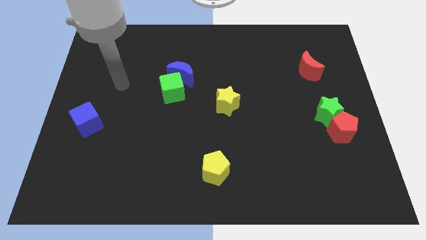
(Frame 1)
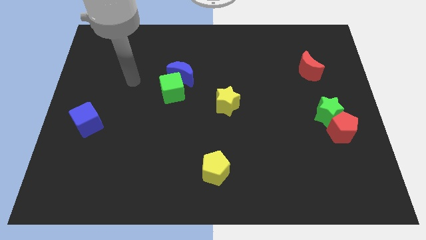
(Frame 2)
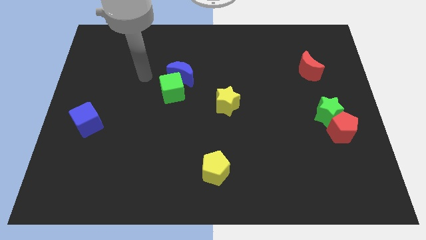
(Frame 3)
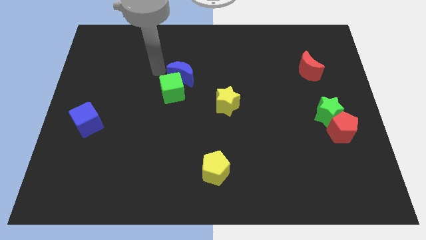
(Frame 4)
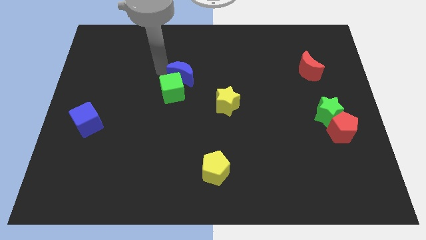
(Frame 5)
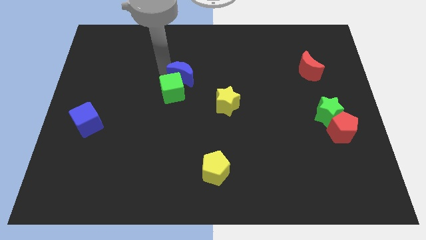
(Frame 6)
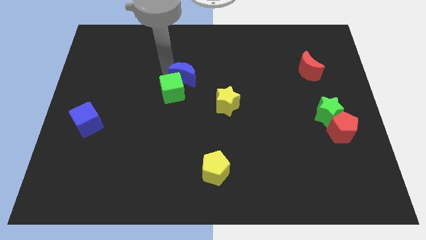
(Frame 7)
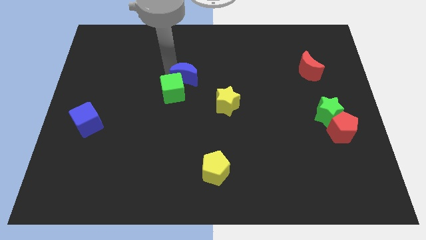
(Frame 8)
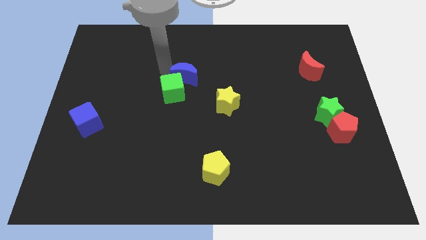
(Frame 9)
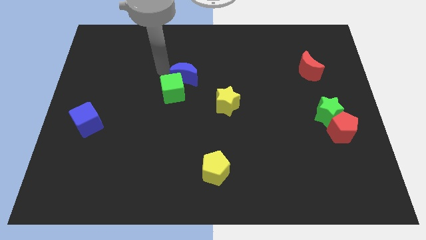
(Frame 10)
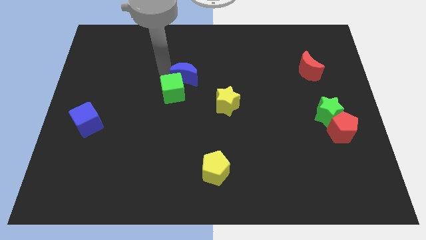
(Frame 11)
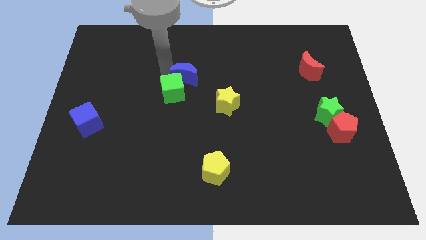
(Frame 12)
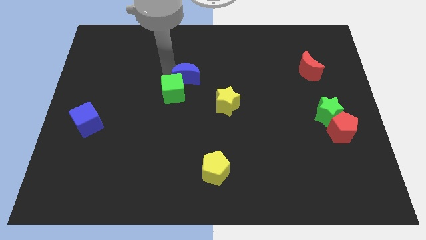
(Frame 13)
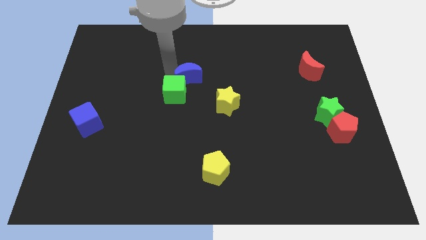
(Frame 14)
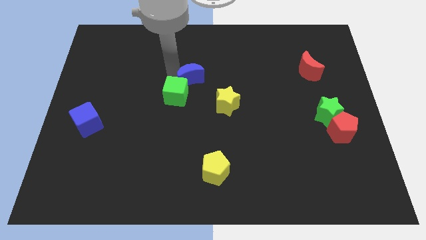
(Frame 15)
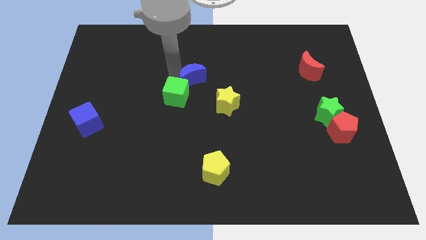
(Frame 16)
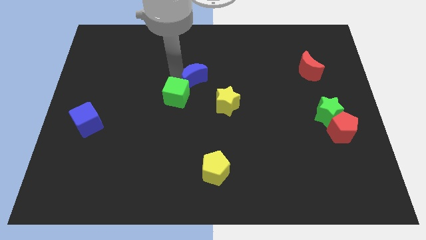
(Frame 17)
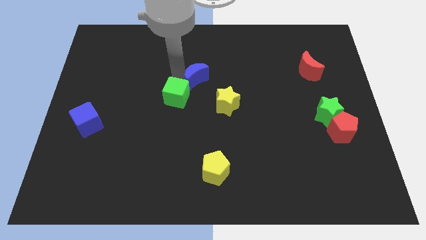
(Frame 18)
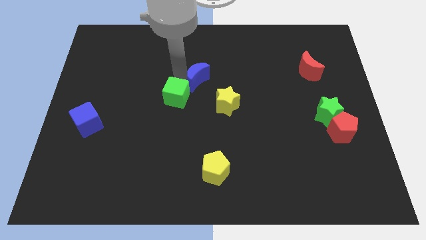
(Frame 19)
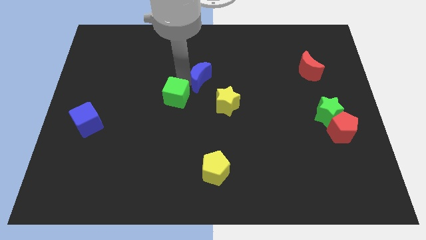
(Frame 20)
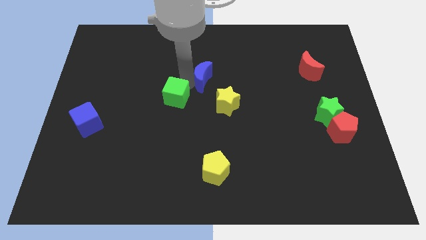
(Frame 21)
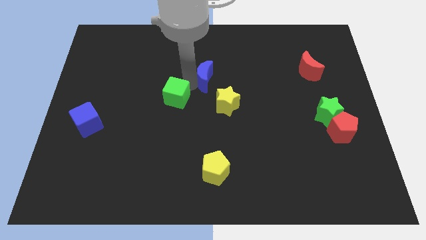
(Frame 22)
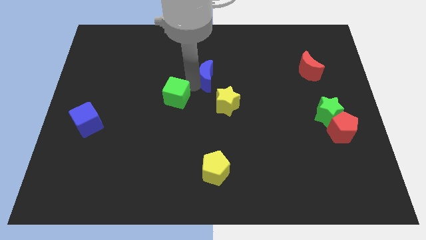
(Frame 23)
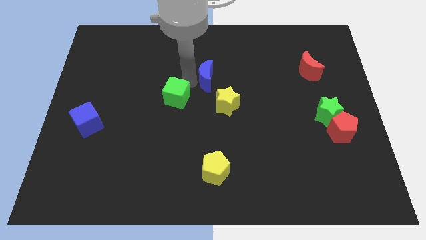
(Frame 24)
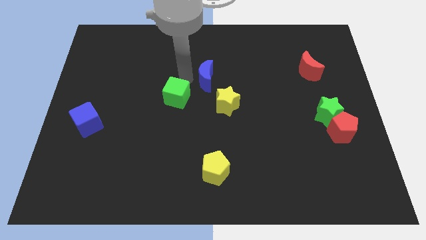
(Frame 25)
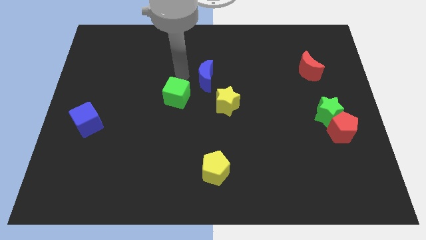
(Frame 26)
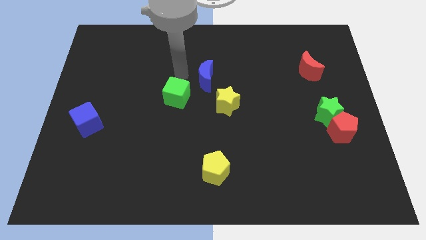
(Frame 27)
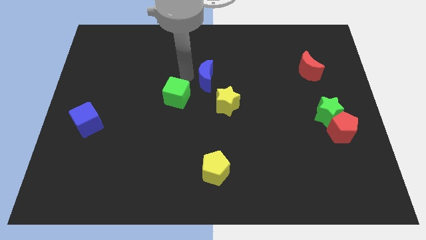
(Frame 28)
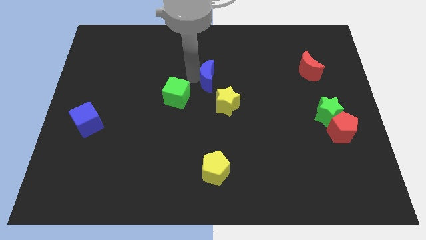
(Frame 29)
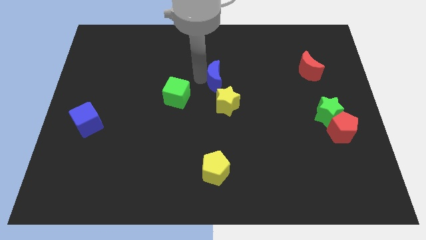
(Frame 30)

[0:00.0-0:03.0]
slightly slide the blue moon right

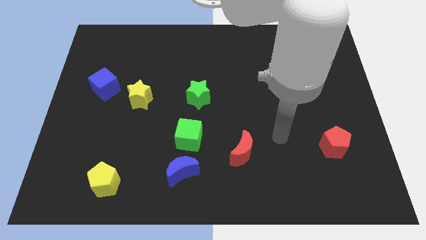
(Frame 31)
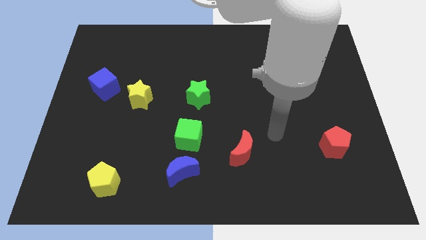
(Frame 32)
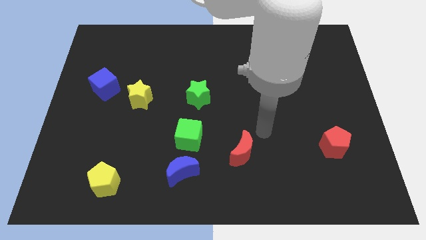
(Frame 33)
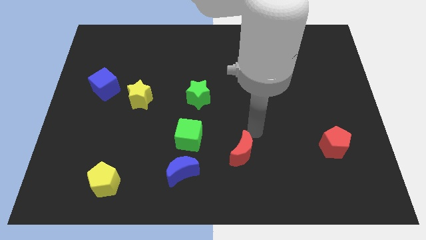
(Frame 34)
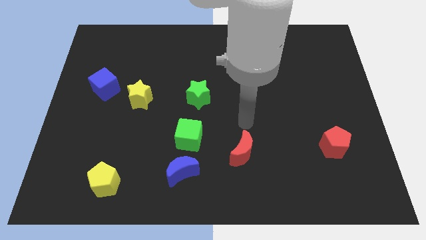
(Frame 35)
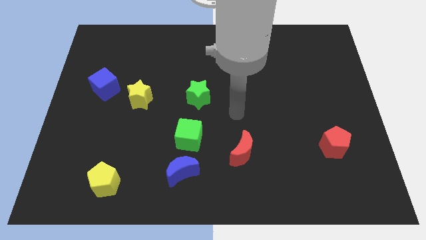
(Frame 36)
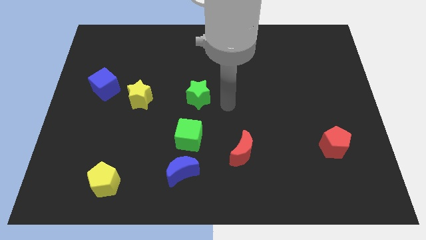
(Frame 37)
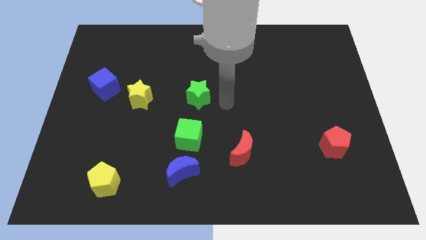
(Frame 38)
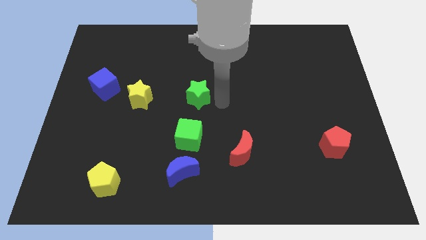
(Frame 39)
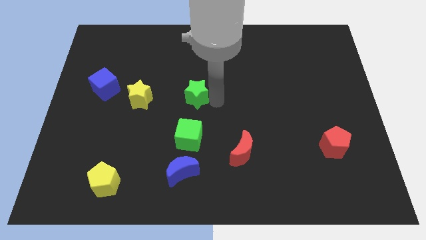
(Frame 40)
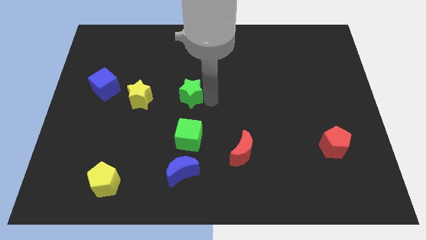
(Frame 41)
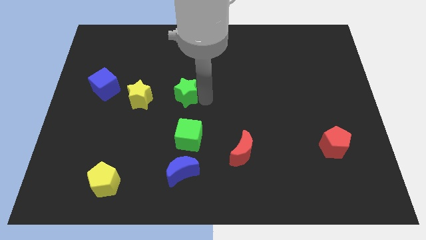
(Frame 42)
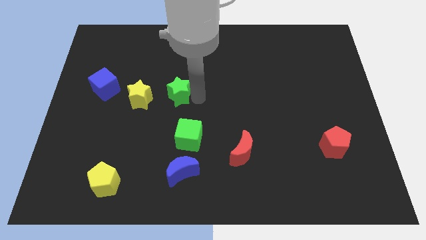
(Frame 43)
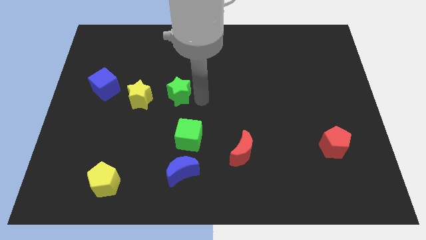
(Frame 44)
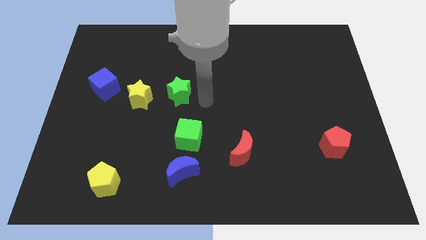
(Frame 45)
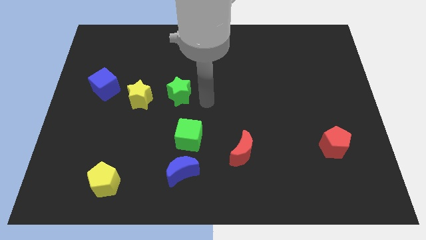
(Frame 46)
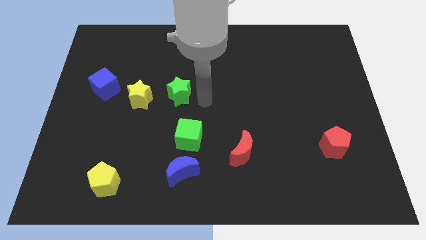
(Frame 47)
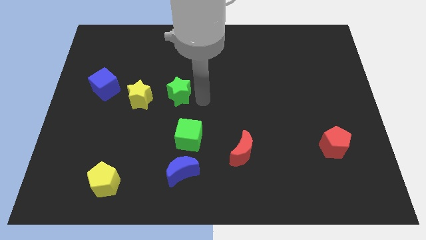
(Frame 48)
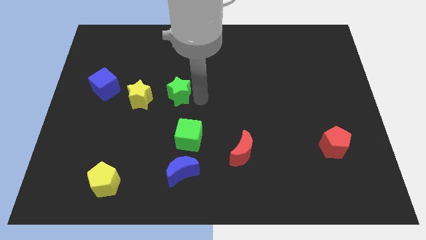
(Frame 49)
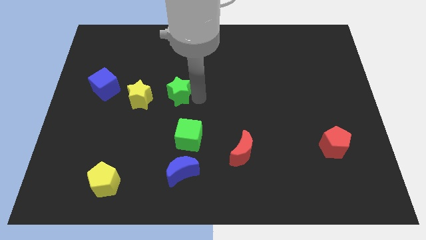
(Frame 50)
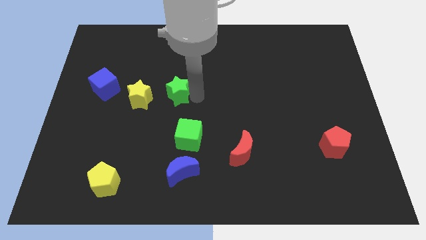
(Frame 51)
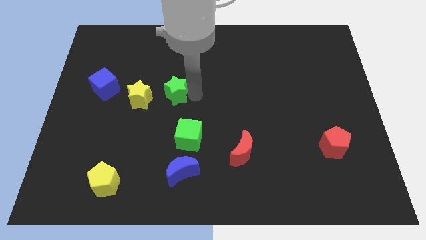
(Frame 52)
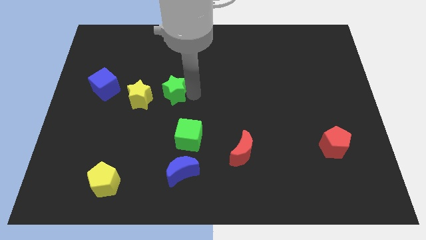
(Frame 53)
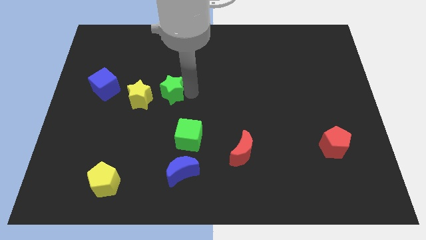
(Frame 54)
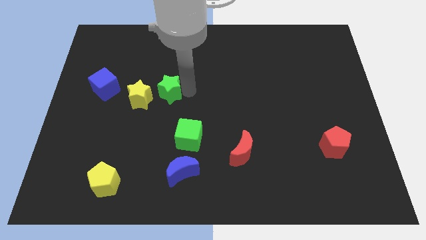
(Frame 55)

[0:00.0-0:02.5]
push the green star somewhat to the left

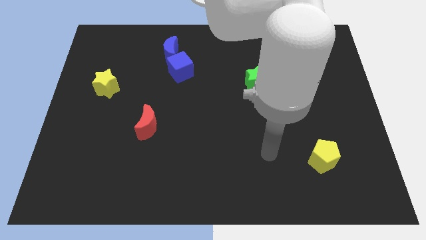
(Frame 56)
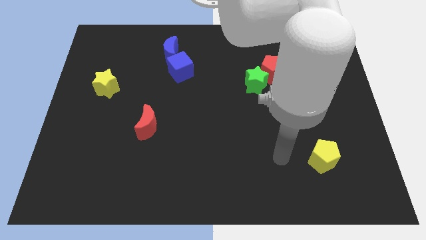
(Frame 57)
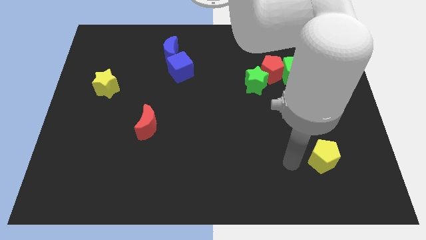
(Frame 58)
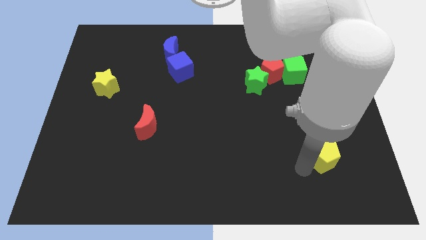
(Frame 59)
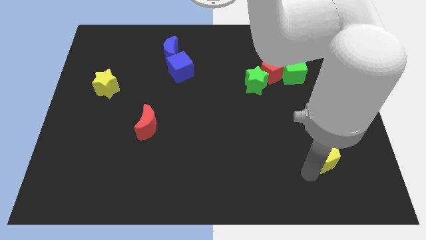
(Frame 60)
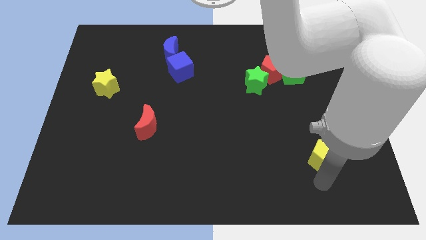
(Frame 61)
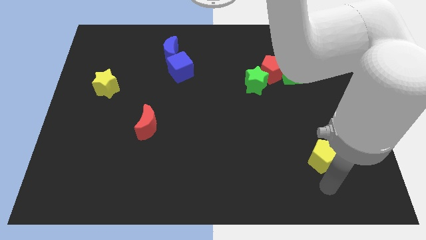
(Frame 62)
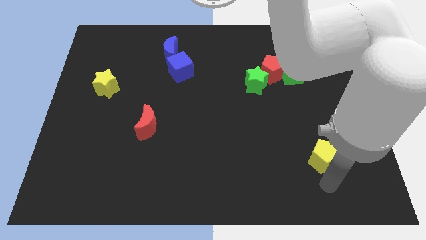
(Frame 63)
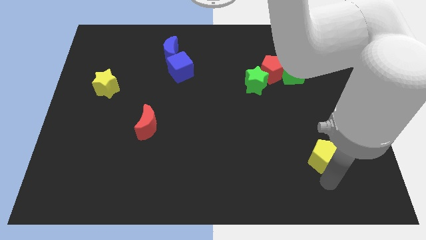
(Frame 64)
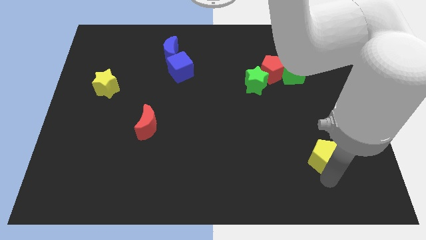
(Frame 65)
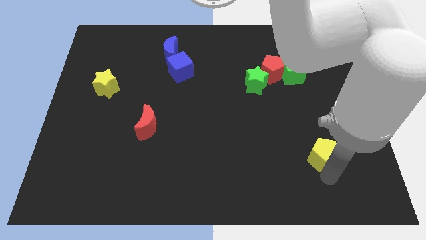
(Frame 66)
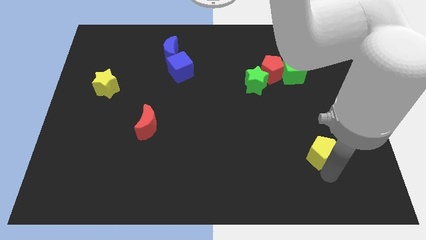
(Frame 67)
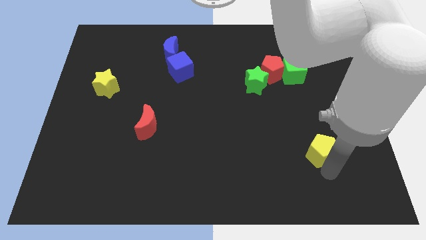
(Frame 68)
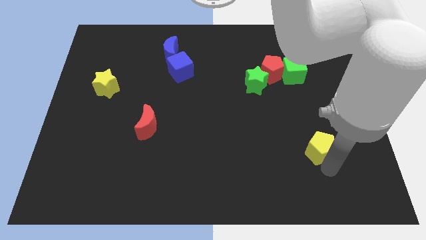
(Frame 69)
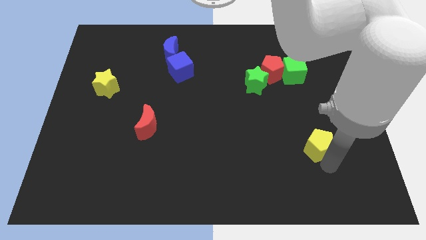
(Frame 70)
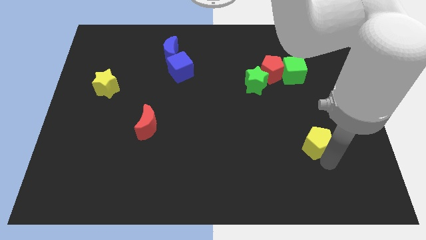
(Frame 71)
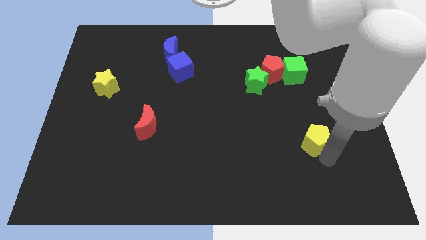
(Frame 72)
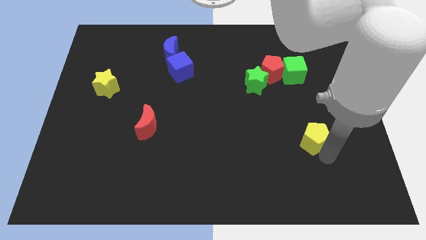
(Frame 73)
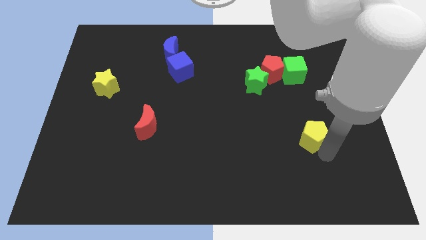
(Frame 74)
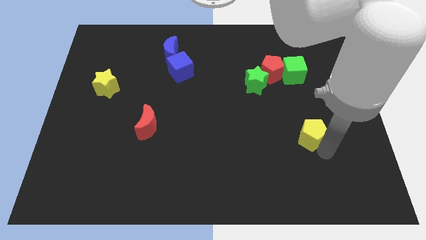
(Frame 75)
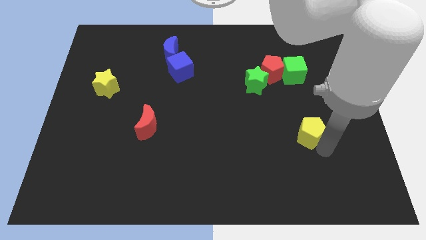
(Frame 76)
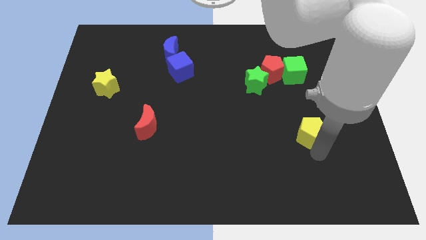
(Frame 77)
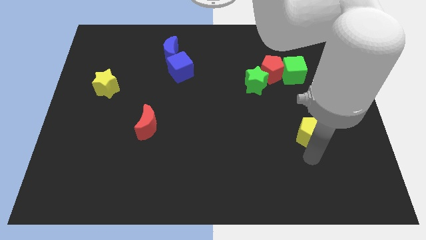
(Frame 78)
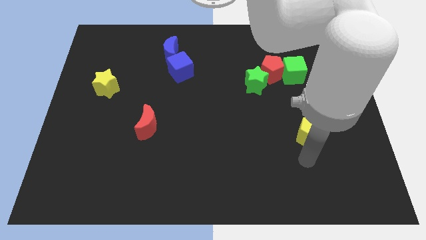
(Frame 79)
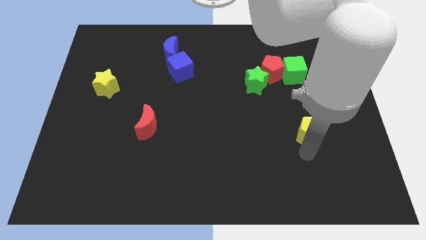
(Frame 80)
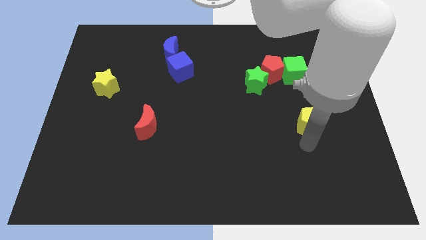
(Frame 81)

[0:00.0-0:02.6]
slightly slide the yellow pentagon upwards

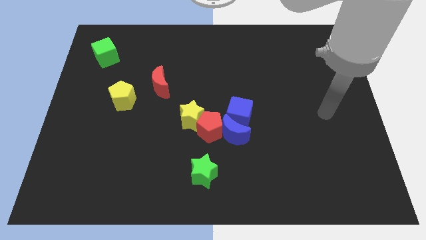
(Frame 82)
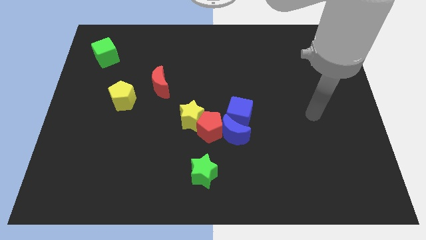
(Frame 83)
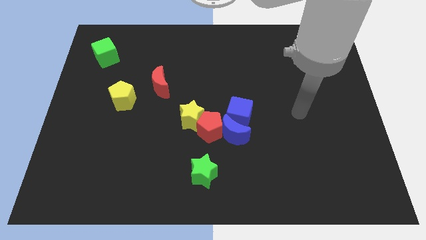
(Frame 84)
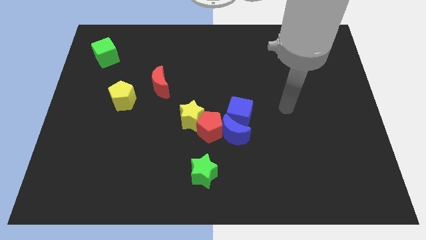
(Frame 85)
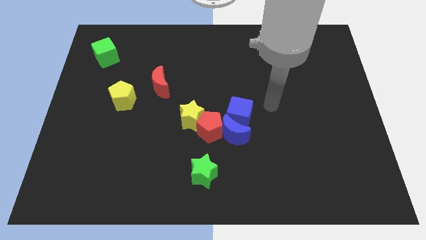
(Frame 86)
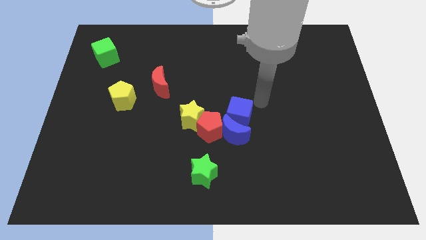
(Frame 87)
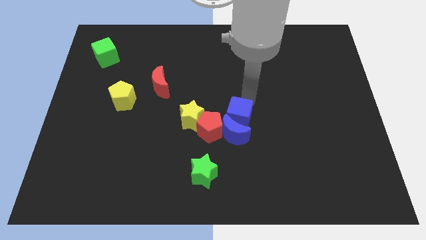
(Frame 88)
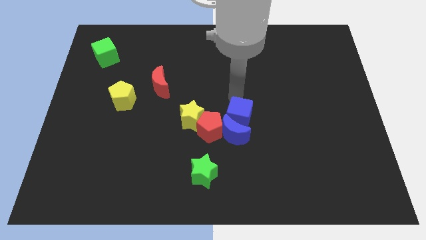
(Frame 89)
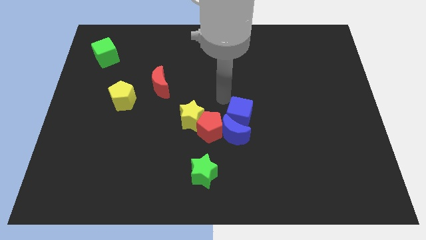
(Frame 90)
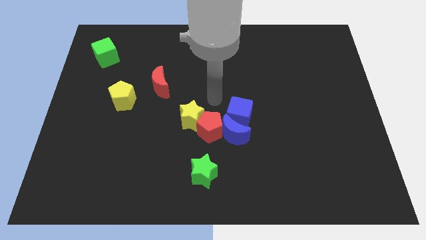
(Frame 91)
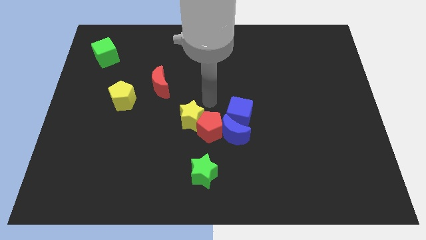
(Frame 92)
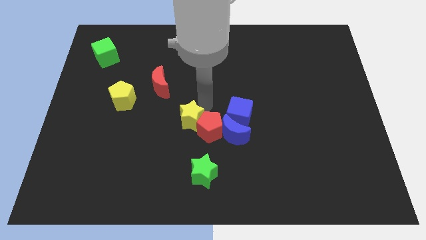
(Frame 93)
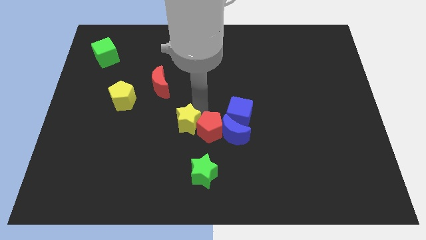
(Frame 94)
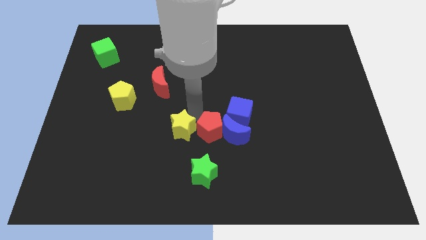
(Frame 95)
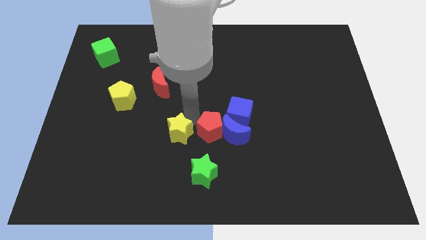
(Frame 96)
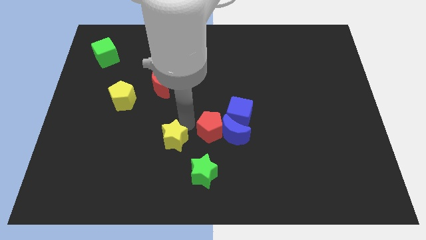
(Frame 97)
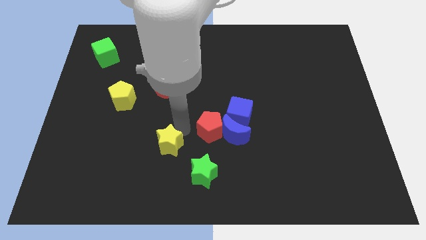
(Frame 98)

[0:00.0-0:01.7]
slightly move the yellow star diagonally downwards and to the left
